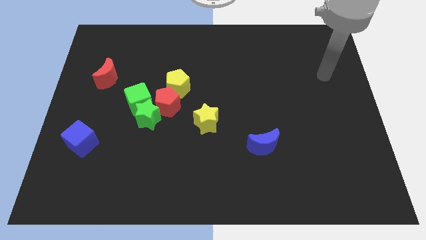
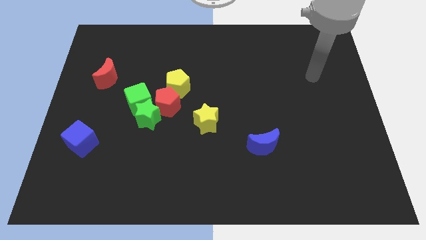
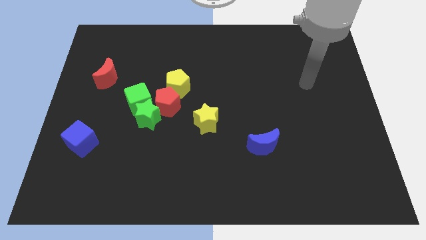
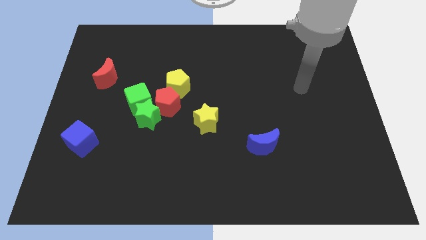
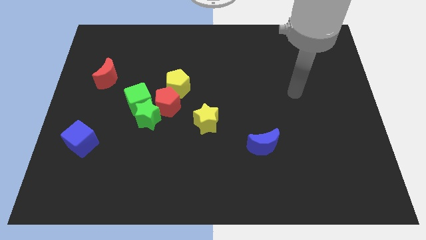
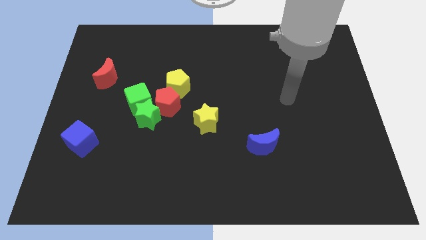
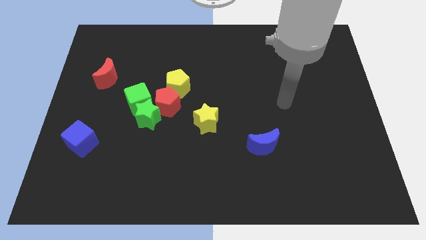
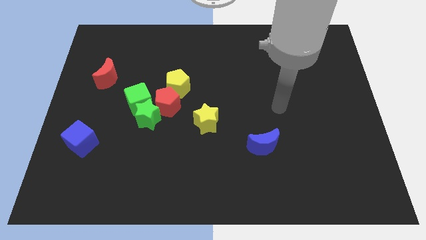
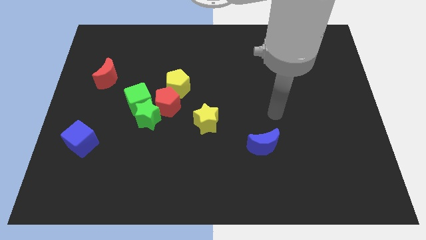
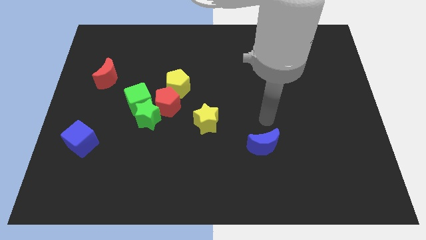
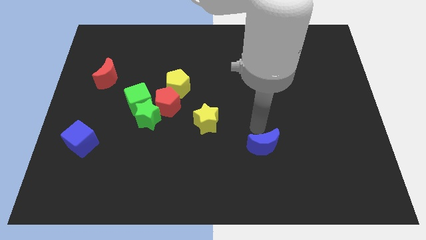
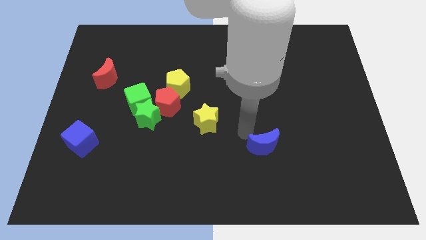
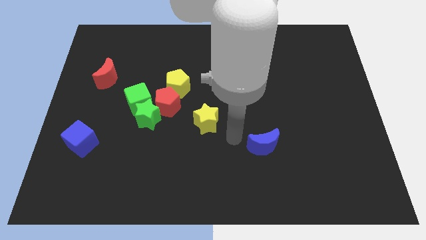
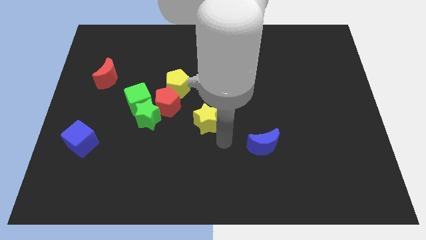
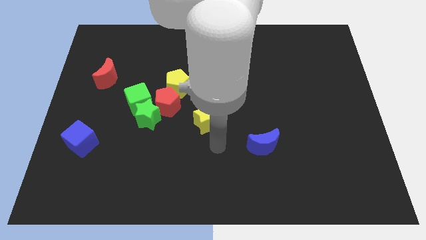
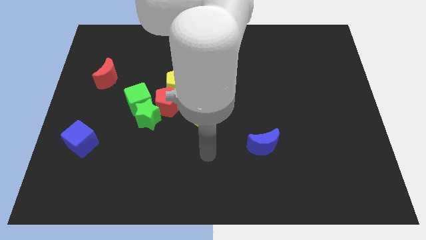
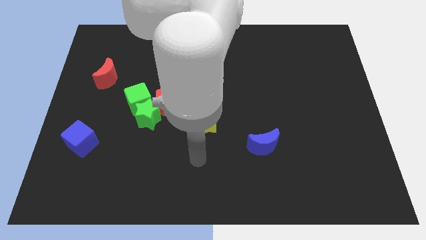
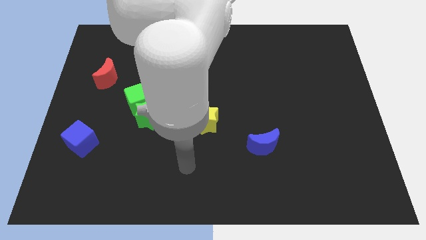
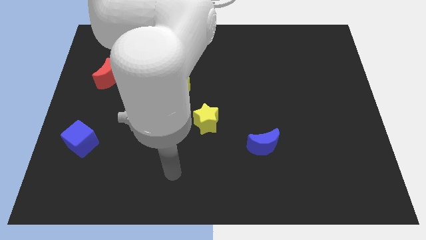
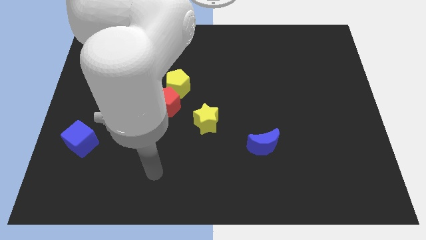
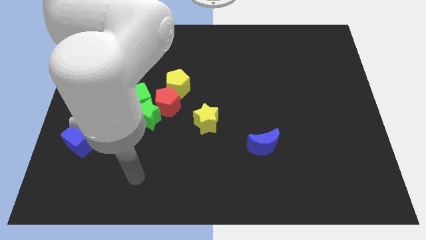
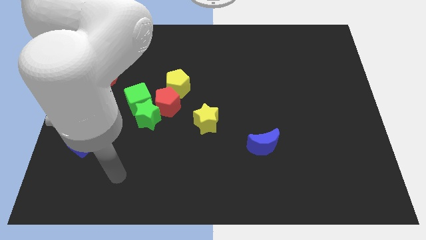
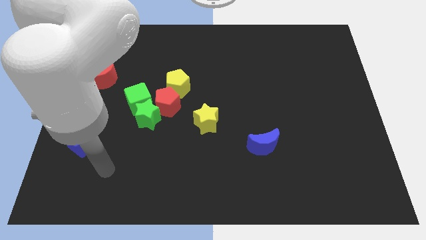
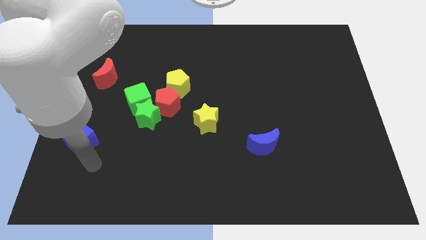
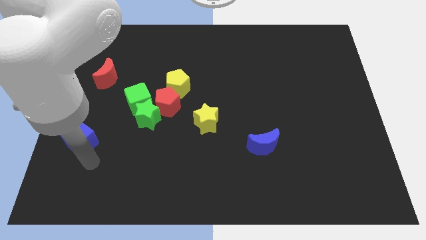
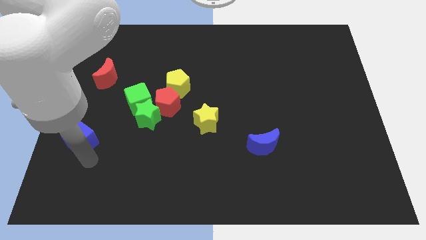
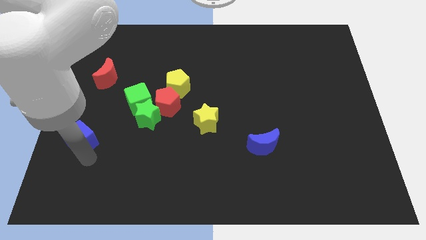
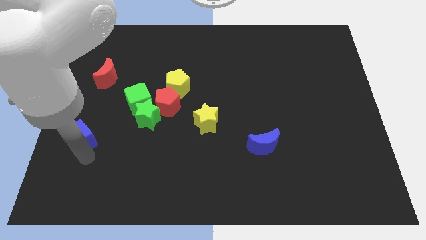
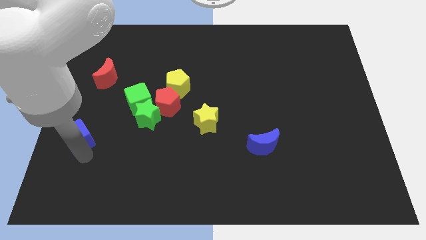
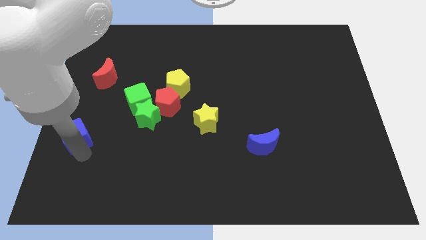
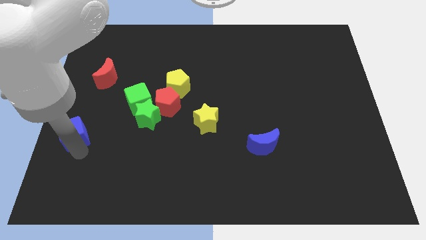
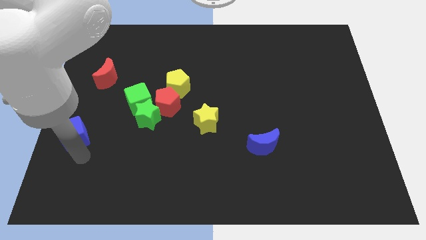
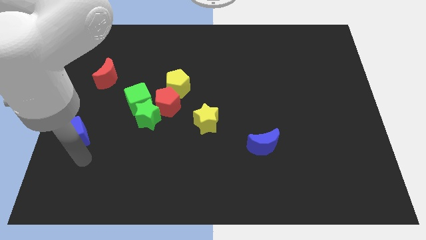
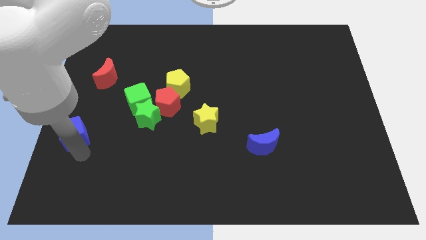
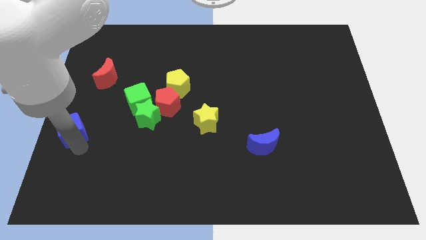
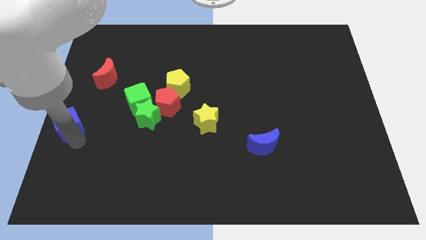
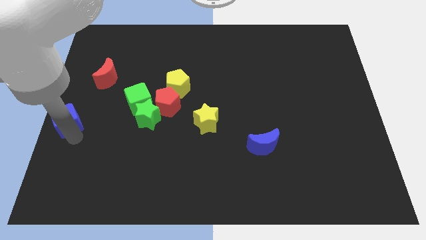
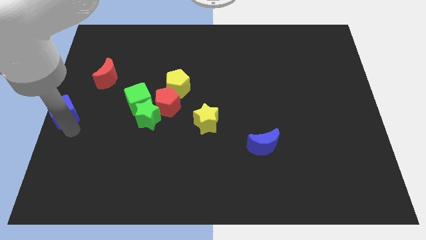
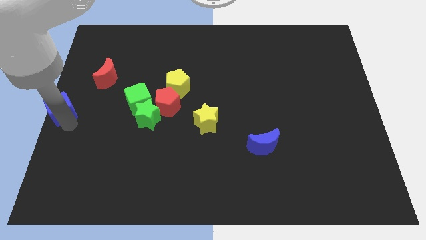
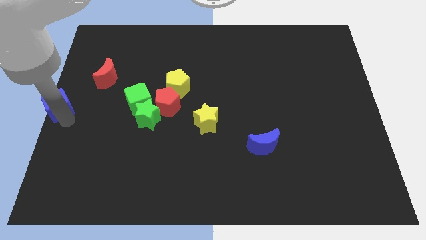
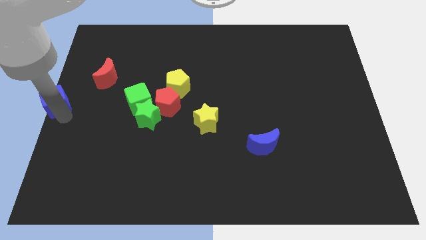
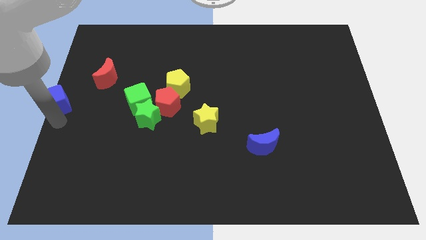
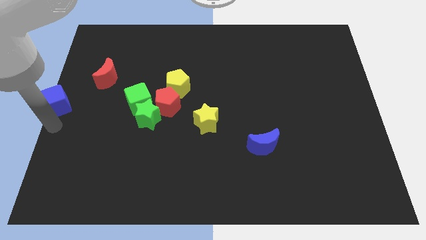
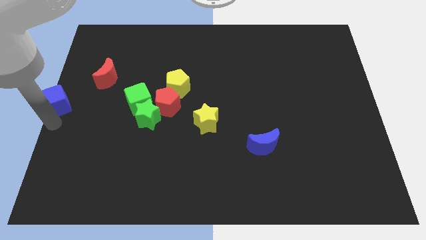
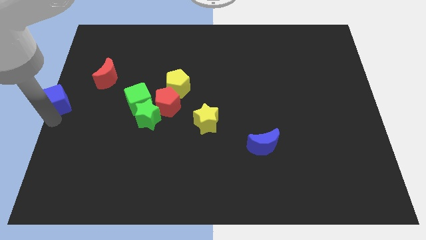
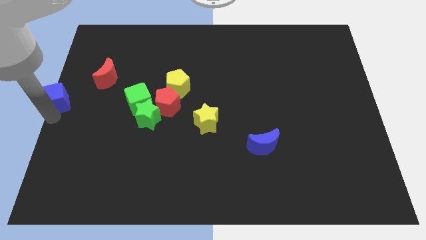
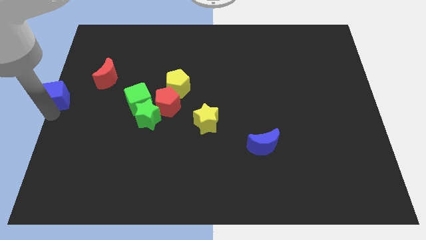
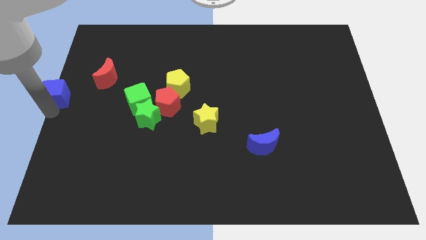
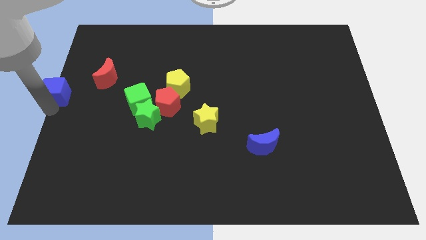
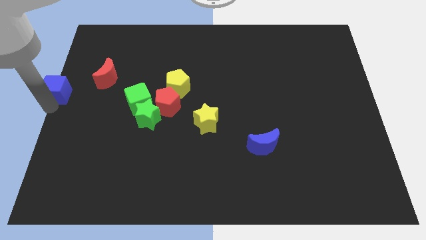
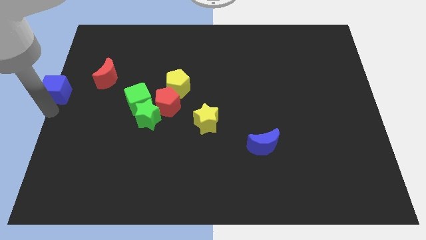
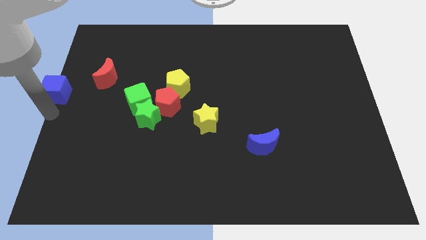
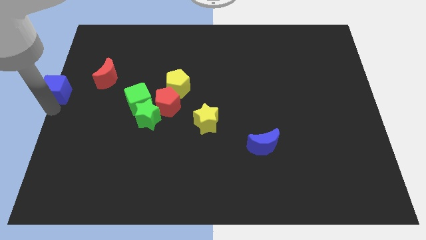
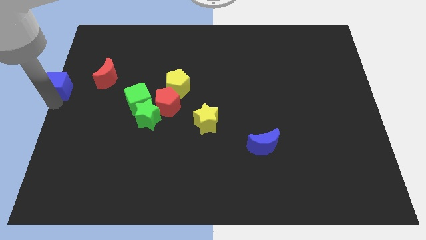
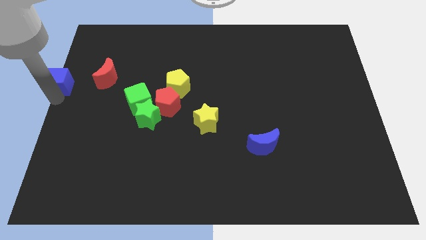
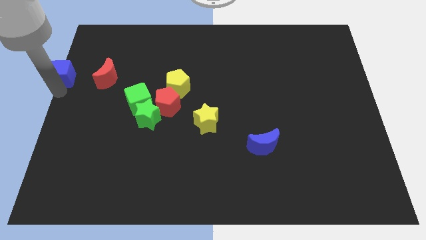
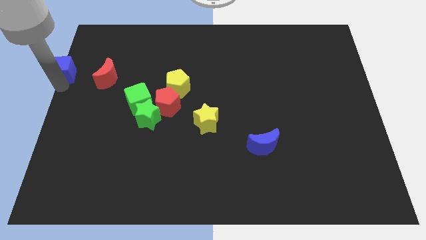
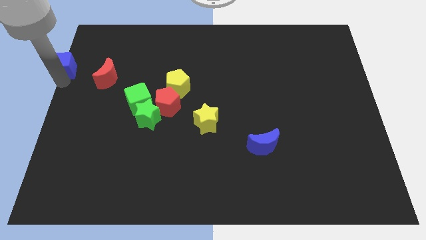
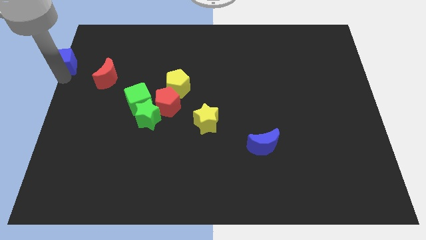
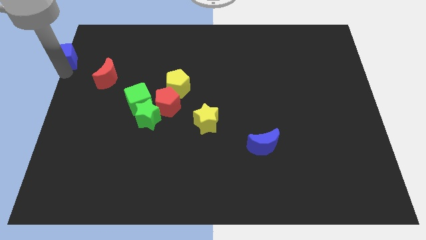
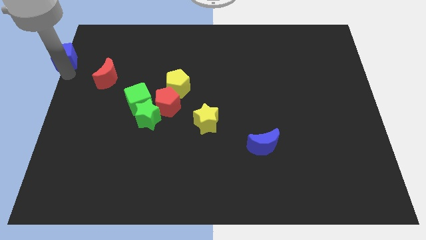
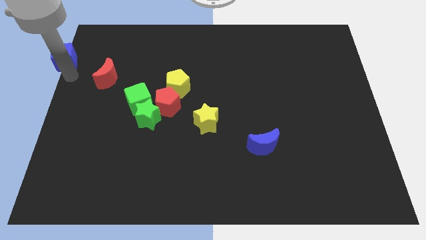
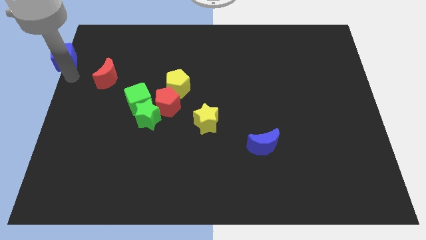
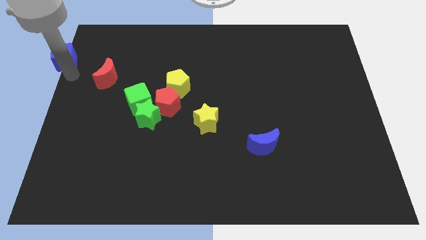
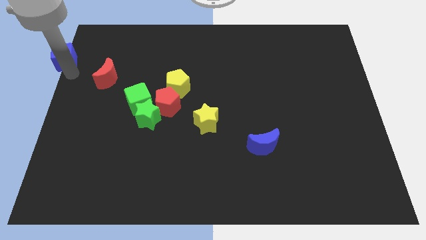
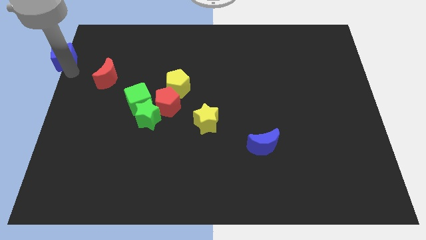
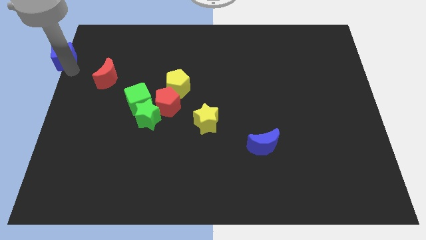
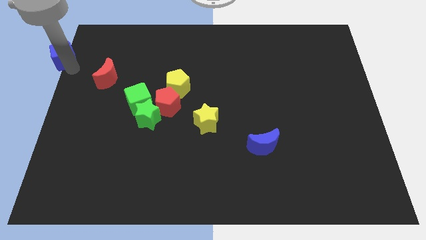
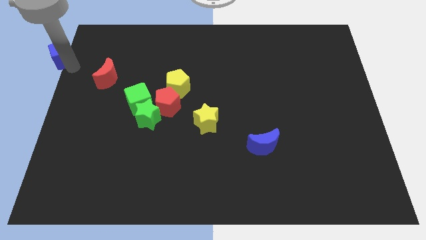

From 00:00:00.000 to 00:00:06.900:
slide the blue cube to the top left
